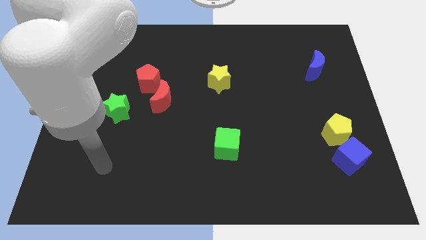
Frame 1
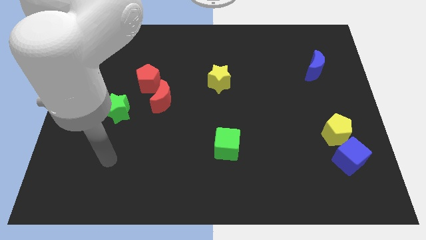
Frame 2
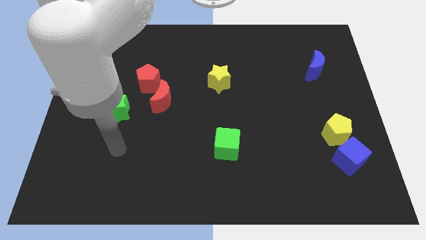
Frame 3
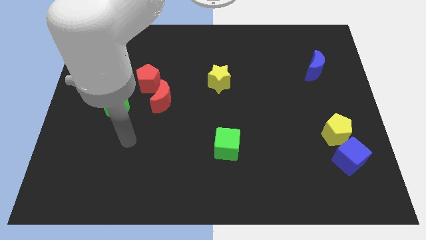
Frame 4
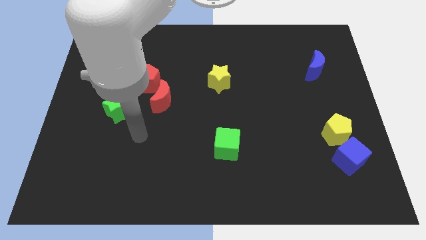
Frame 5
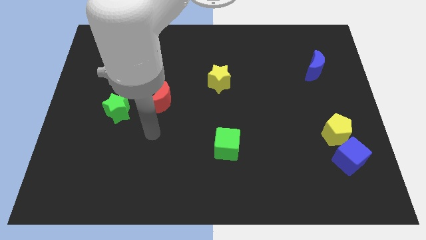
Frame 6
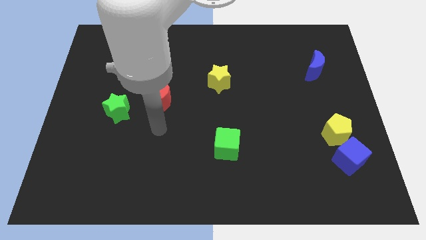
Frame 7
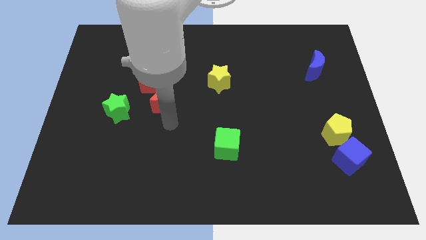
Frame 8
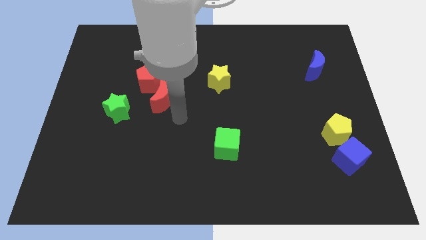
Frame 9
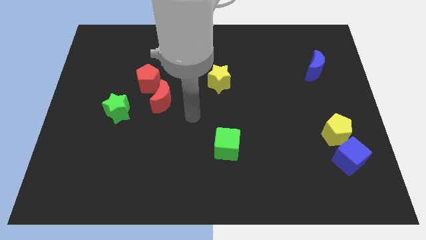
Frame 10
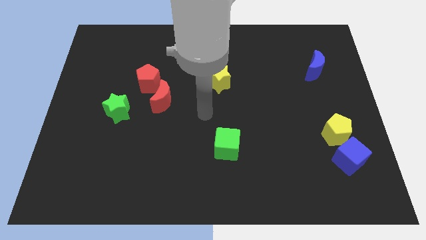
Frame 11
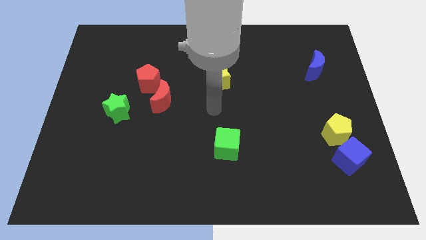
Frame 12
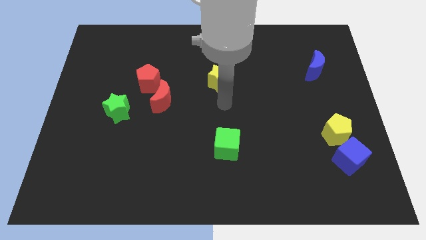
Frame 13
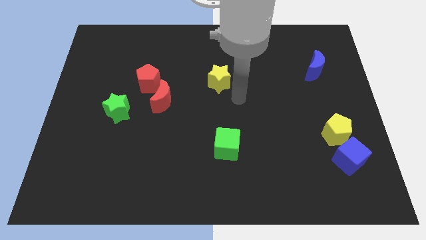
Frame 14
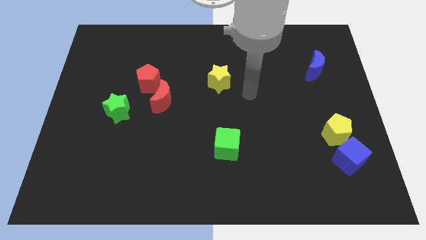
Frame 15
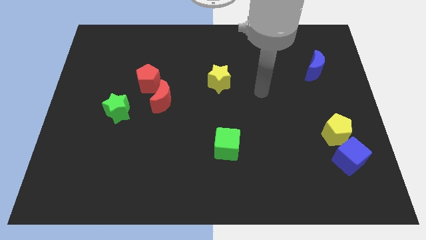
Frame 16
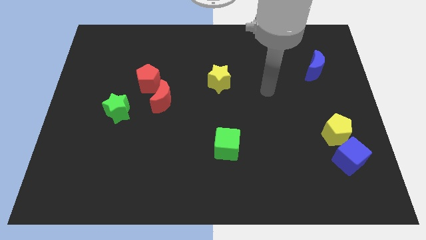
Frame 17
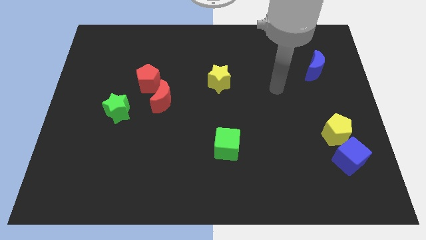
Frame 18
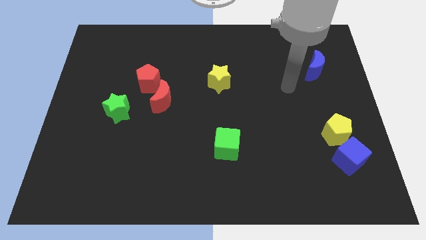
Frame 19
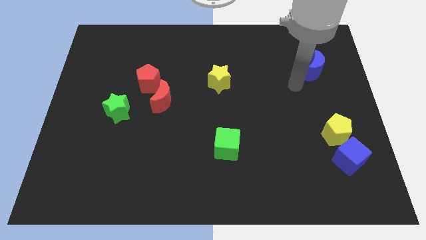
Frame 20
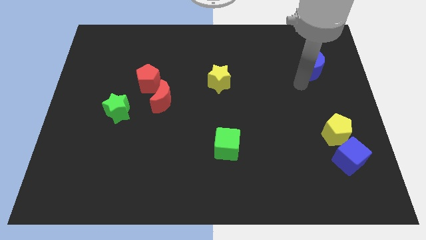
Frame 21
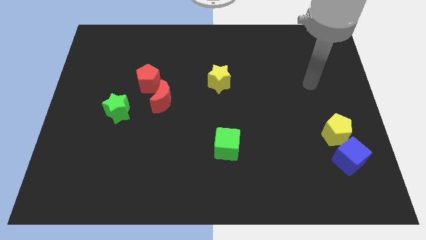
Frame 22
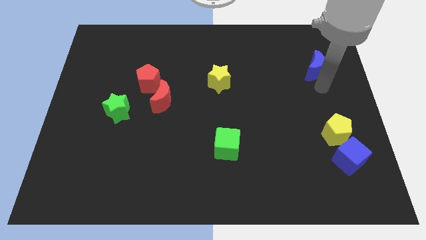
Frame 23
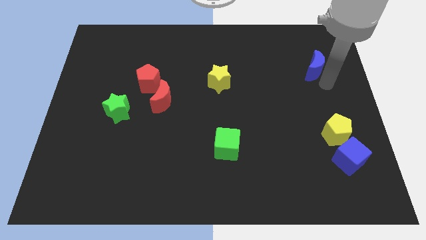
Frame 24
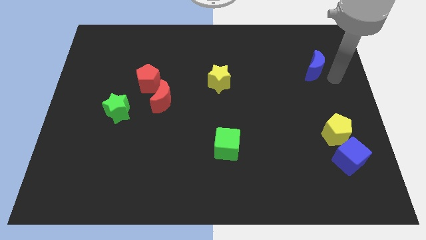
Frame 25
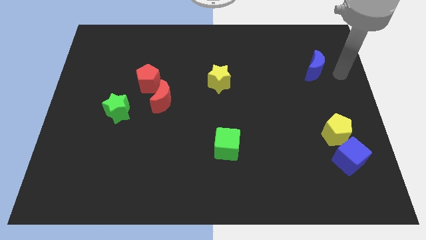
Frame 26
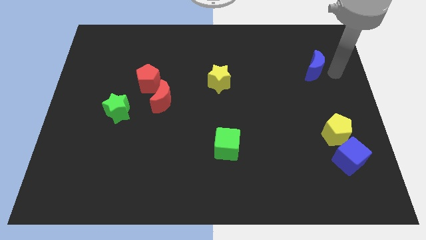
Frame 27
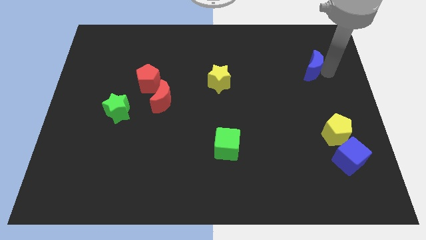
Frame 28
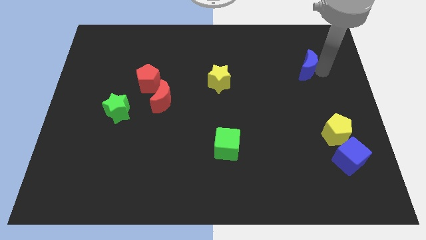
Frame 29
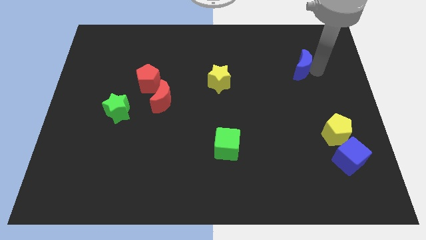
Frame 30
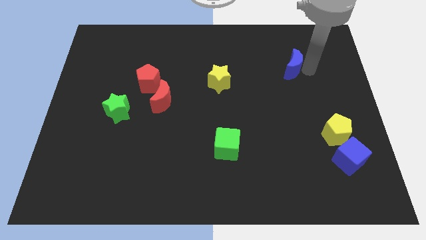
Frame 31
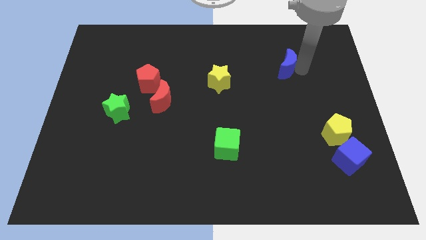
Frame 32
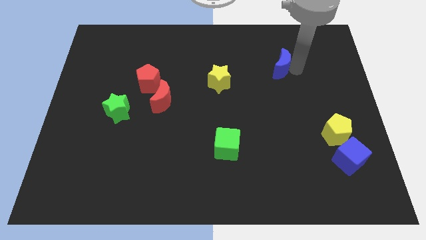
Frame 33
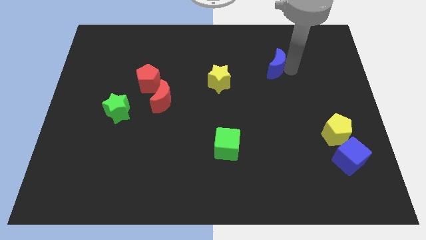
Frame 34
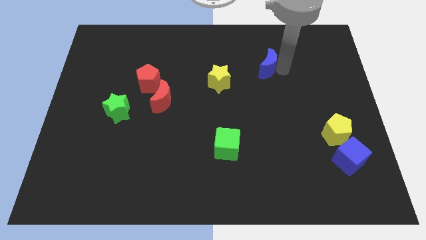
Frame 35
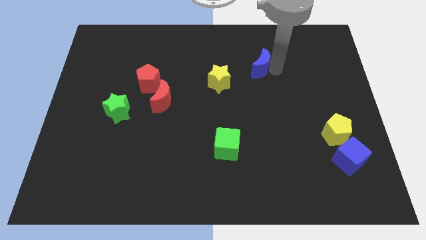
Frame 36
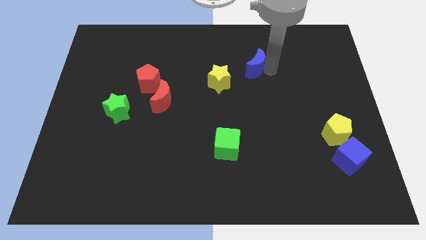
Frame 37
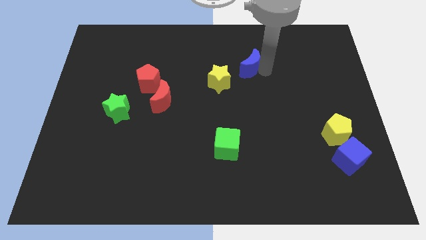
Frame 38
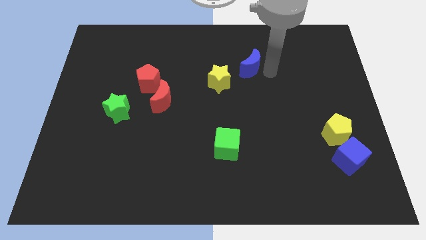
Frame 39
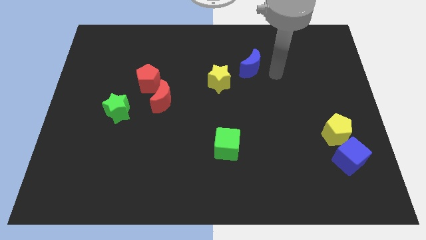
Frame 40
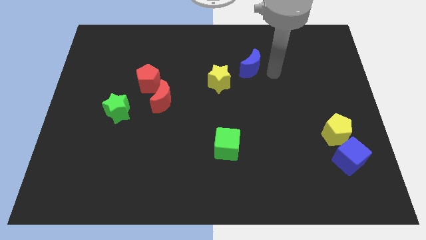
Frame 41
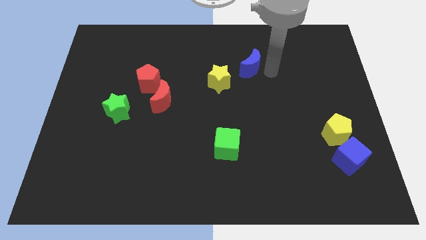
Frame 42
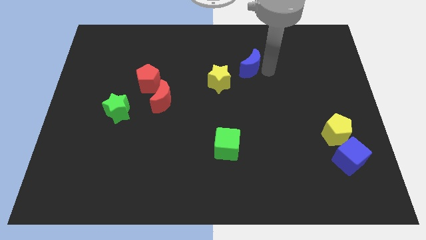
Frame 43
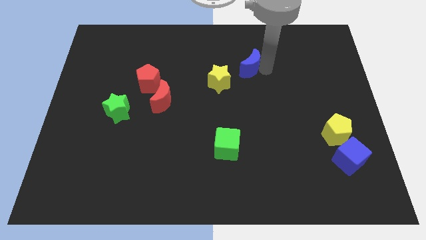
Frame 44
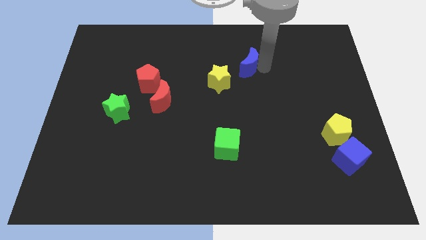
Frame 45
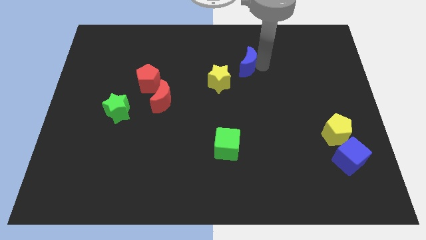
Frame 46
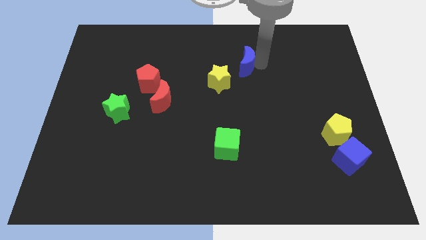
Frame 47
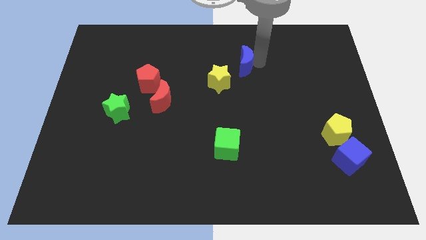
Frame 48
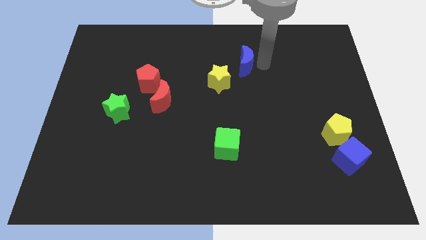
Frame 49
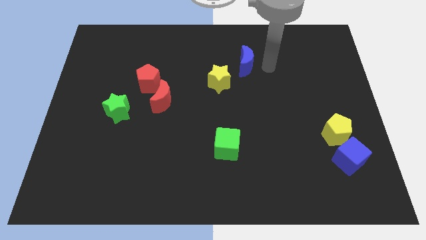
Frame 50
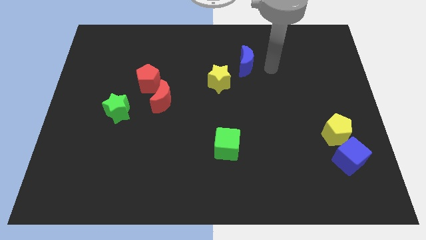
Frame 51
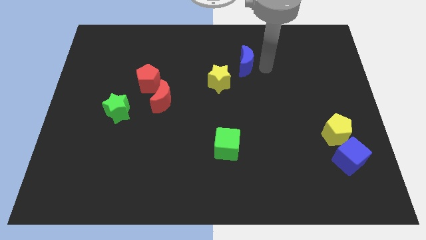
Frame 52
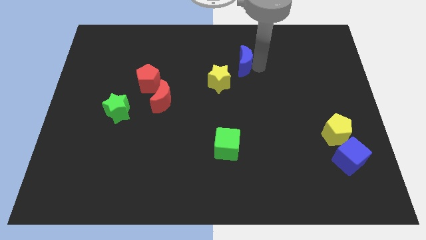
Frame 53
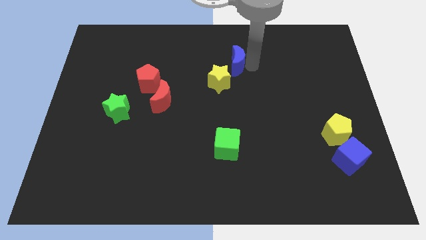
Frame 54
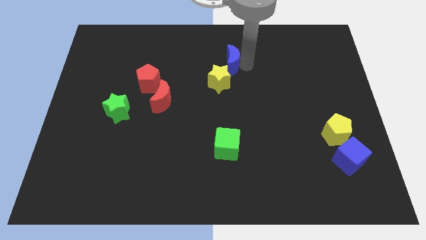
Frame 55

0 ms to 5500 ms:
push the blue moon to the left

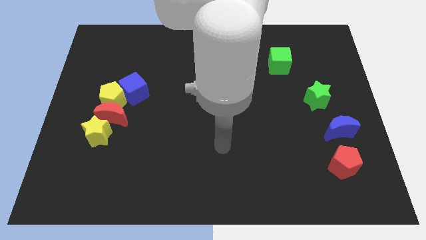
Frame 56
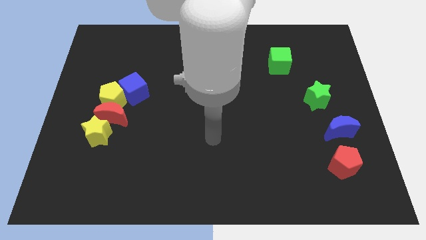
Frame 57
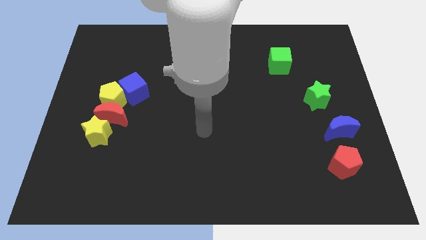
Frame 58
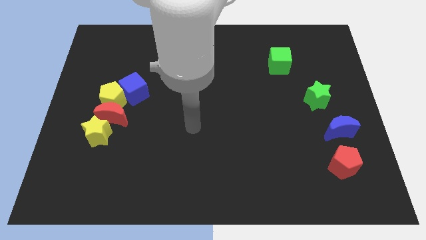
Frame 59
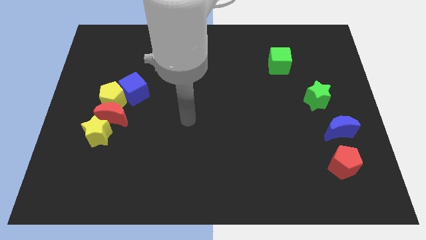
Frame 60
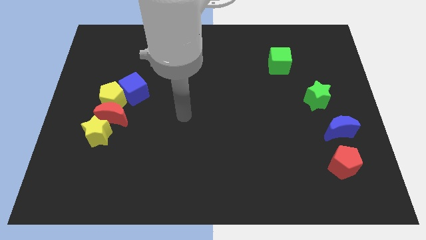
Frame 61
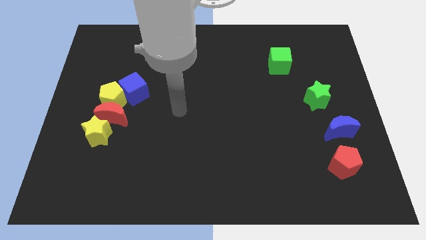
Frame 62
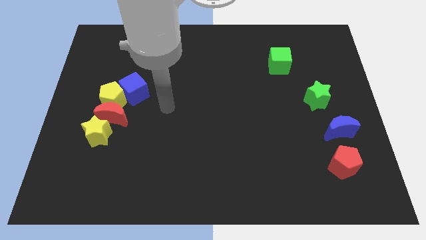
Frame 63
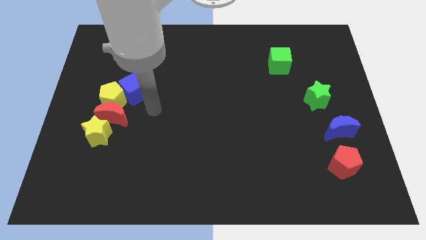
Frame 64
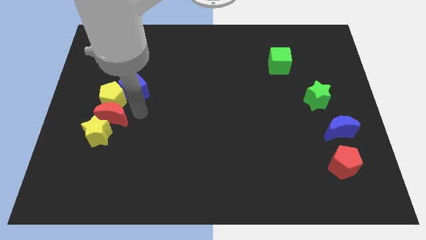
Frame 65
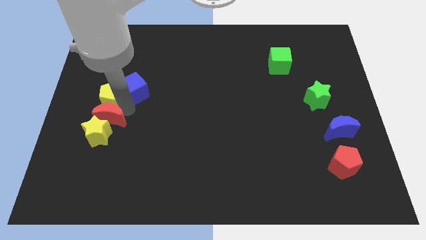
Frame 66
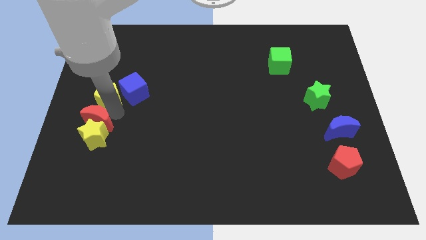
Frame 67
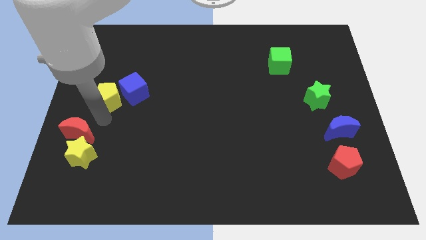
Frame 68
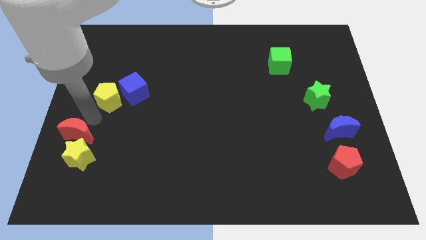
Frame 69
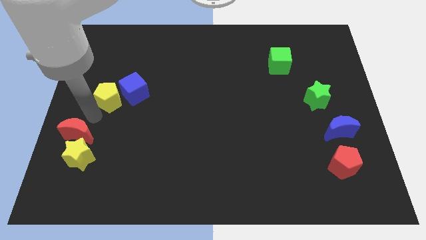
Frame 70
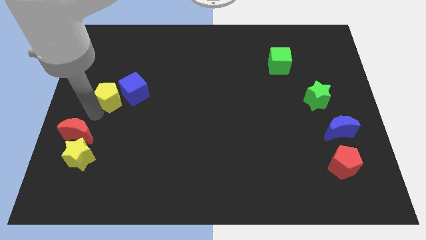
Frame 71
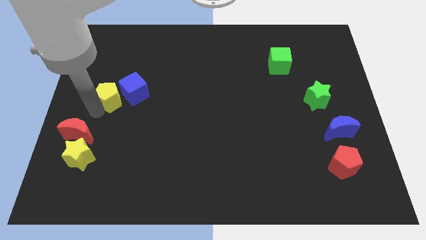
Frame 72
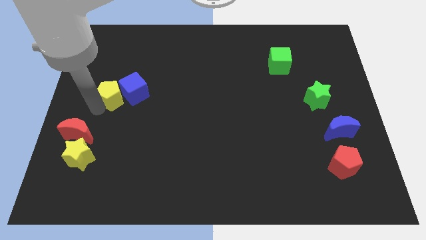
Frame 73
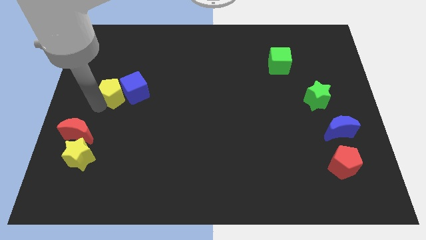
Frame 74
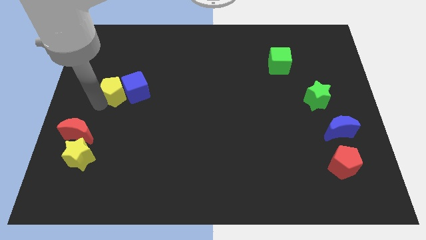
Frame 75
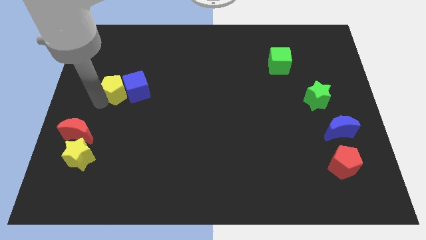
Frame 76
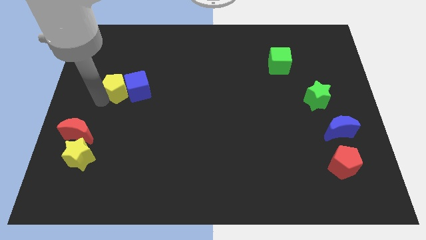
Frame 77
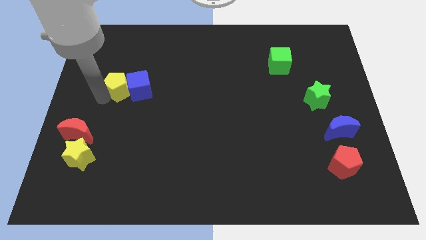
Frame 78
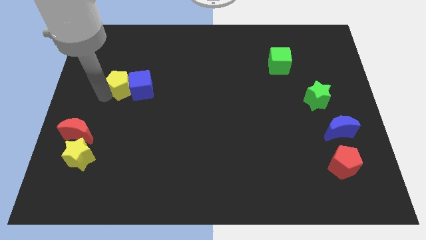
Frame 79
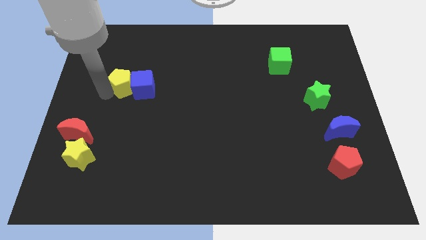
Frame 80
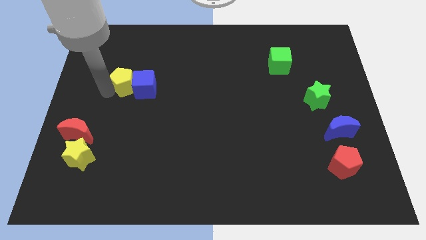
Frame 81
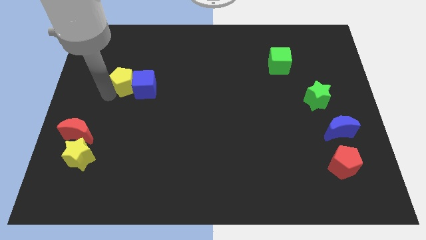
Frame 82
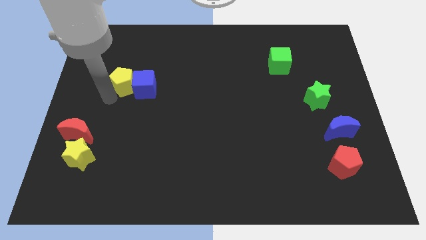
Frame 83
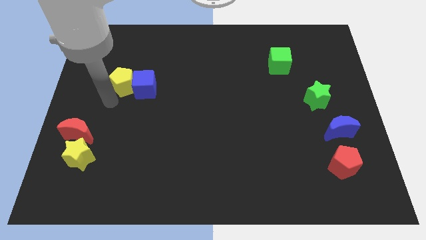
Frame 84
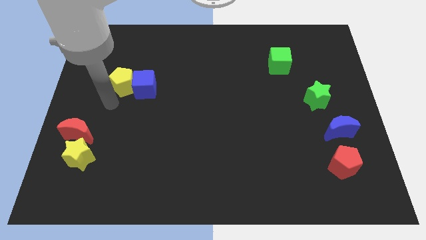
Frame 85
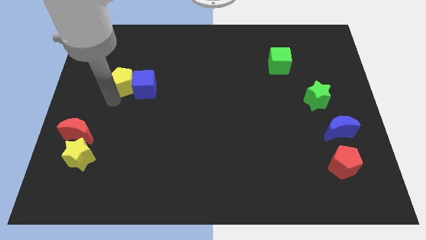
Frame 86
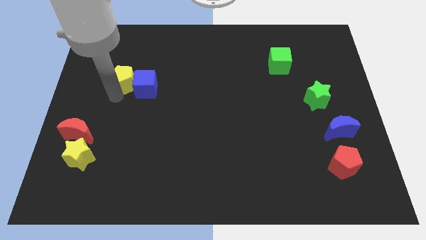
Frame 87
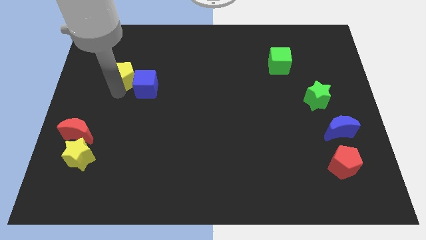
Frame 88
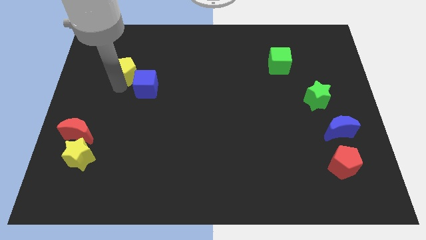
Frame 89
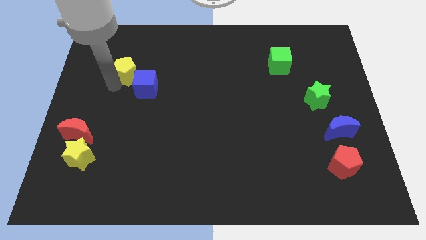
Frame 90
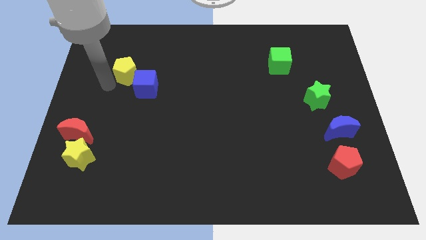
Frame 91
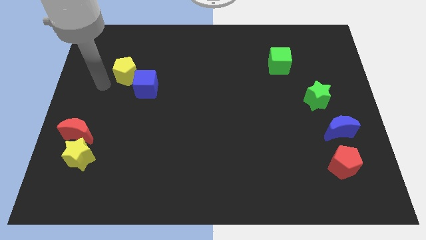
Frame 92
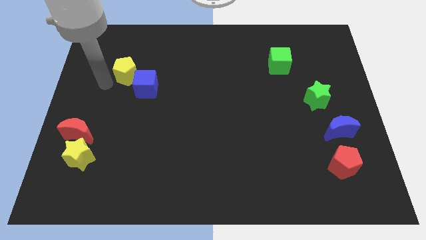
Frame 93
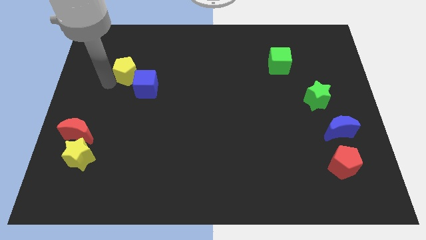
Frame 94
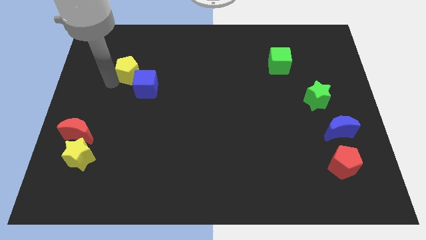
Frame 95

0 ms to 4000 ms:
slide the yellow pentagon upwards and right a little
